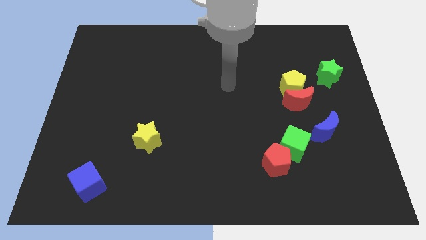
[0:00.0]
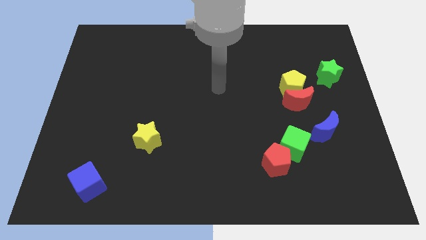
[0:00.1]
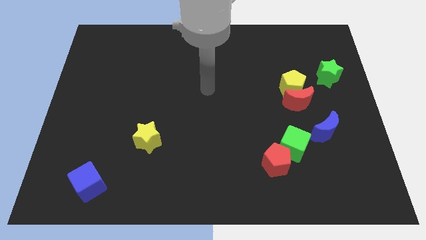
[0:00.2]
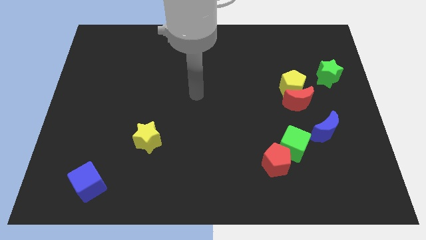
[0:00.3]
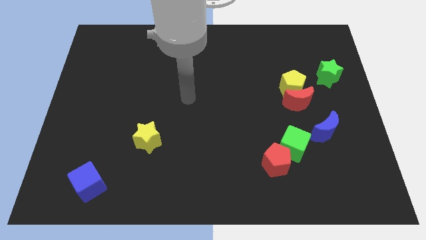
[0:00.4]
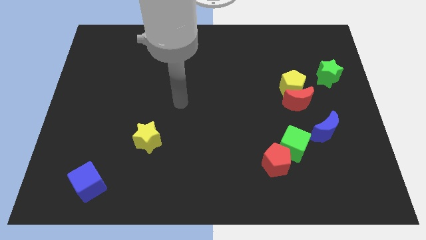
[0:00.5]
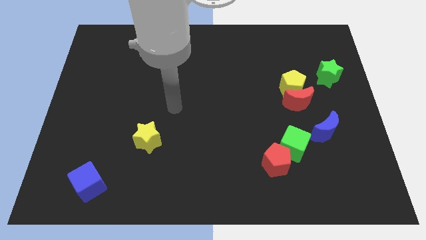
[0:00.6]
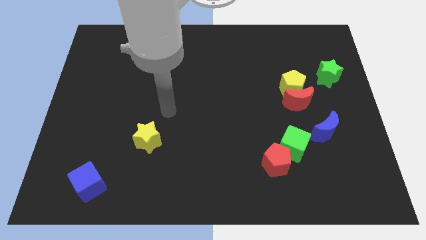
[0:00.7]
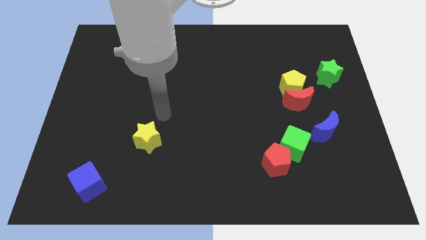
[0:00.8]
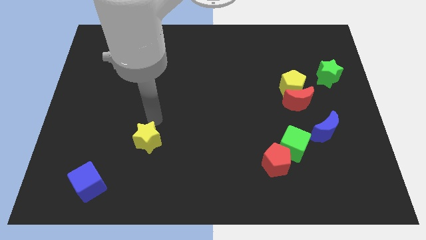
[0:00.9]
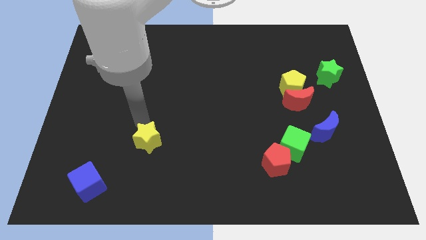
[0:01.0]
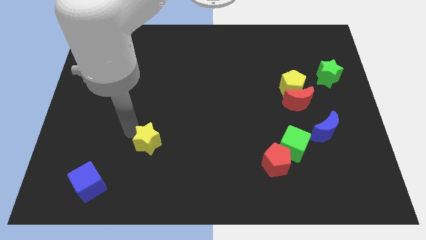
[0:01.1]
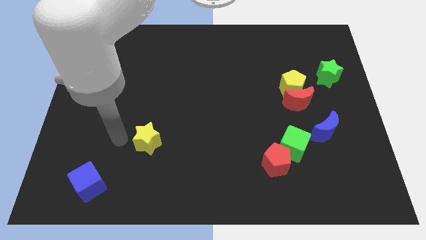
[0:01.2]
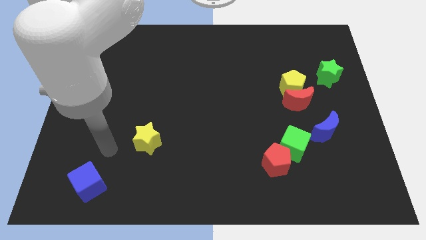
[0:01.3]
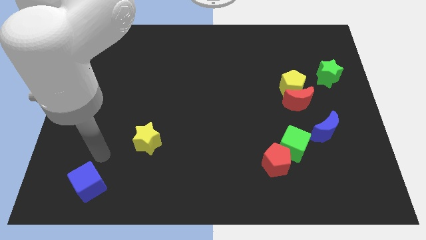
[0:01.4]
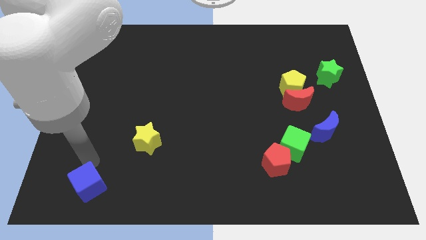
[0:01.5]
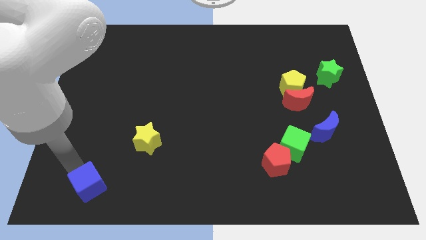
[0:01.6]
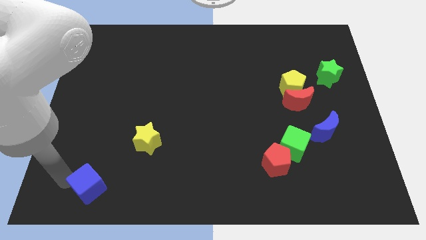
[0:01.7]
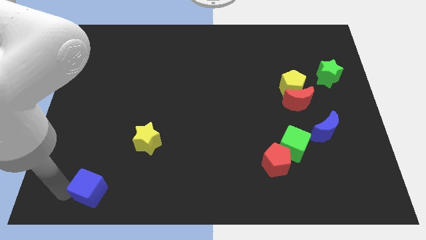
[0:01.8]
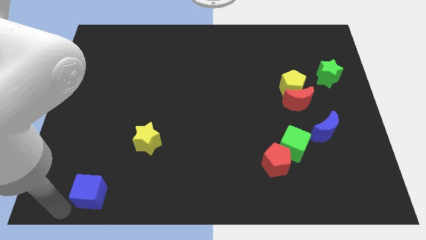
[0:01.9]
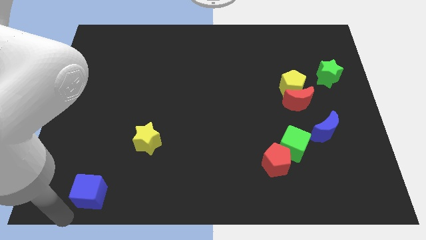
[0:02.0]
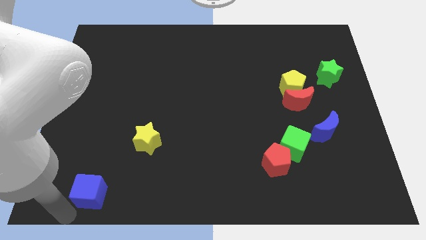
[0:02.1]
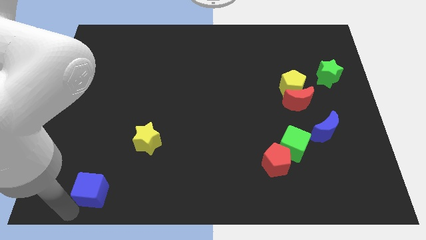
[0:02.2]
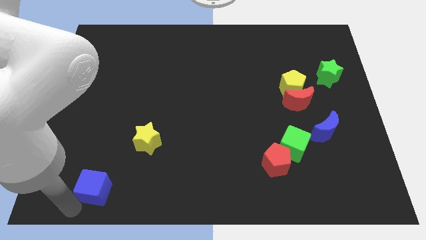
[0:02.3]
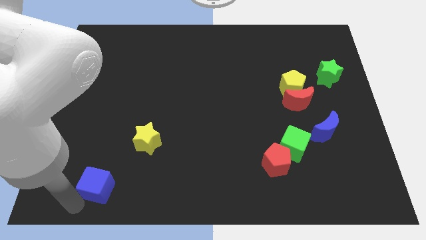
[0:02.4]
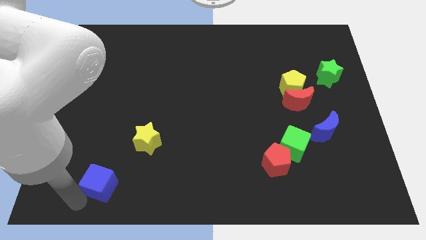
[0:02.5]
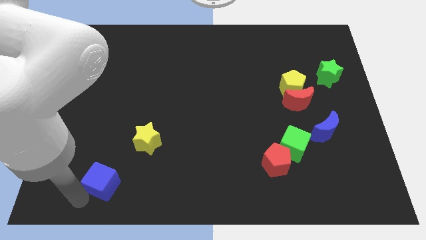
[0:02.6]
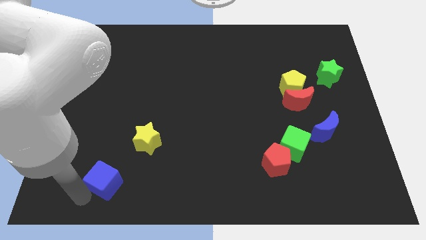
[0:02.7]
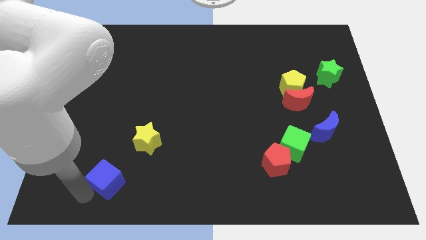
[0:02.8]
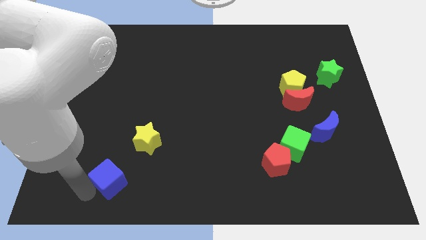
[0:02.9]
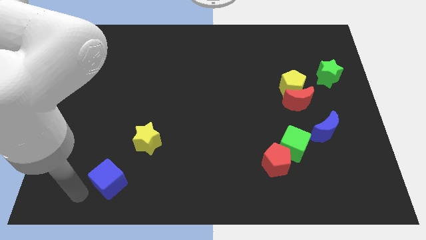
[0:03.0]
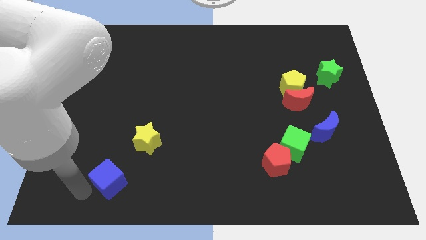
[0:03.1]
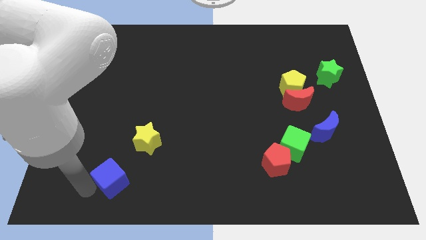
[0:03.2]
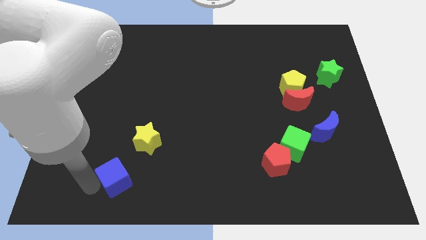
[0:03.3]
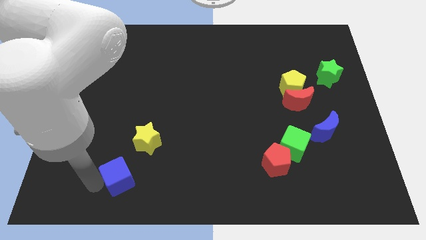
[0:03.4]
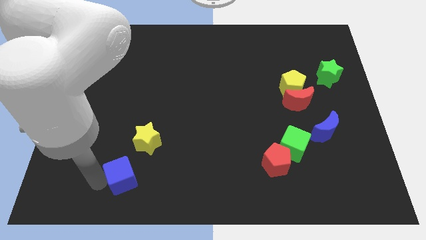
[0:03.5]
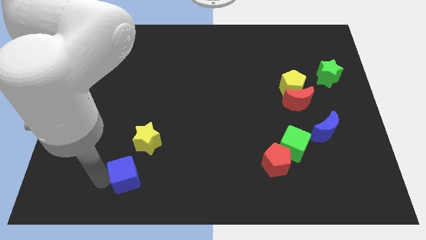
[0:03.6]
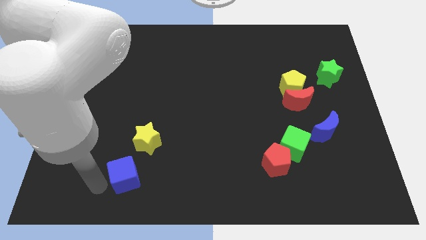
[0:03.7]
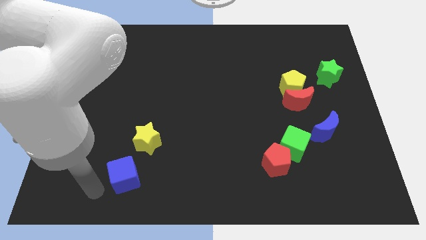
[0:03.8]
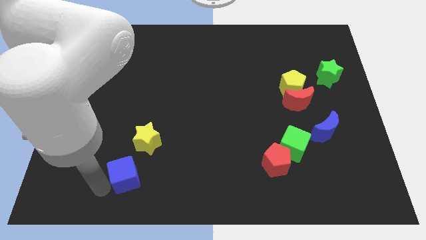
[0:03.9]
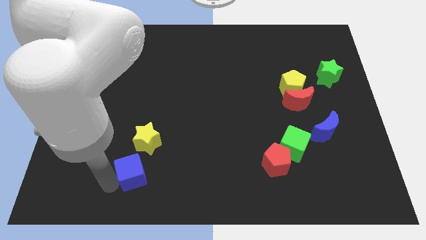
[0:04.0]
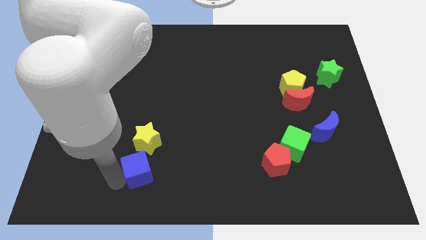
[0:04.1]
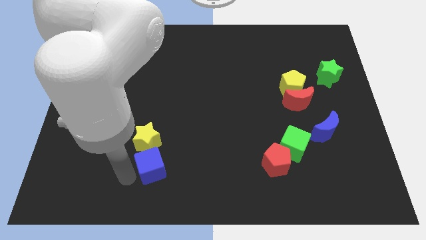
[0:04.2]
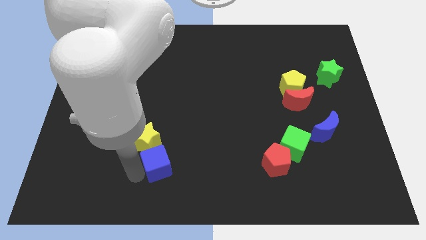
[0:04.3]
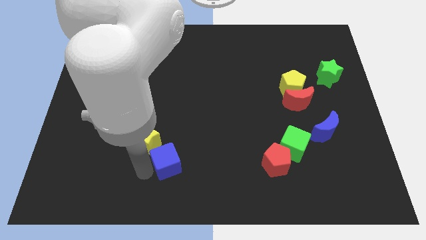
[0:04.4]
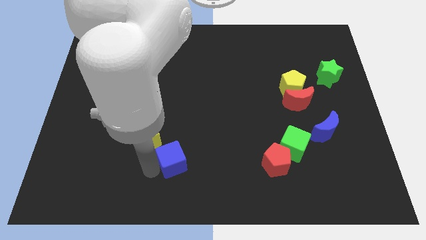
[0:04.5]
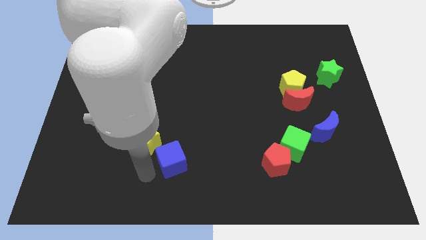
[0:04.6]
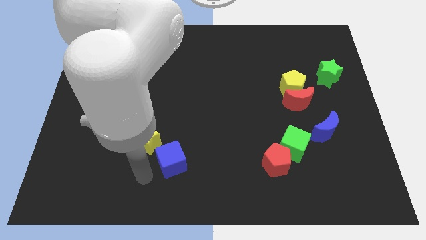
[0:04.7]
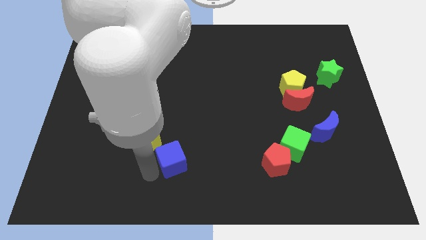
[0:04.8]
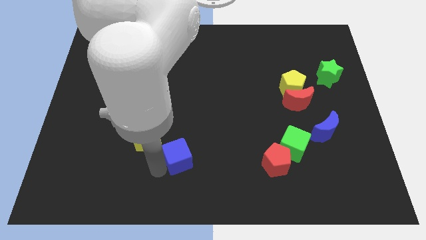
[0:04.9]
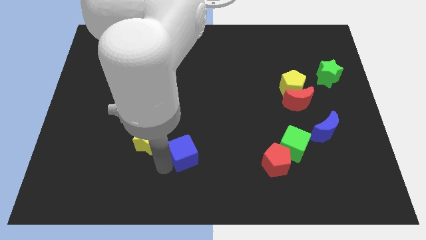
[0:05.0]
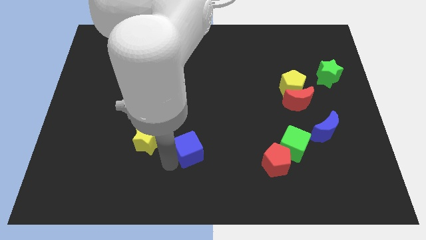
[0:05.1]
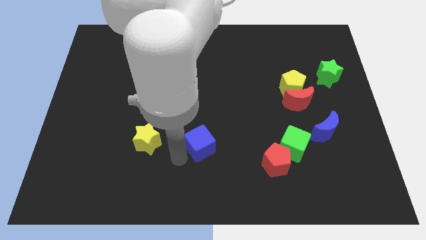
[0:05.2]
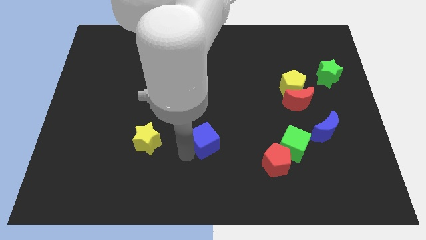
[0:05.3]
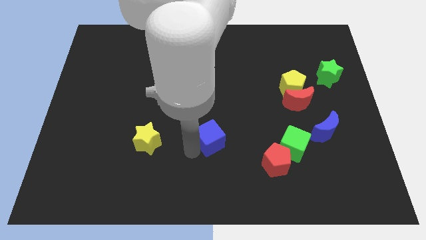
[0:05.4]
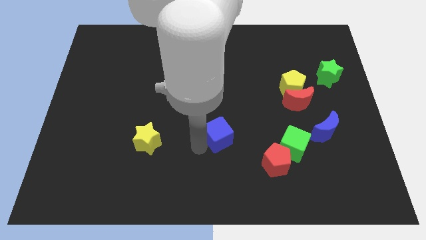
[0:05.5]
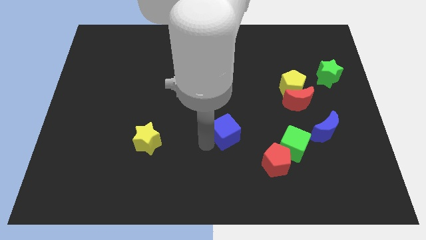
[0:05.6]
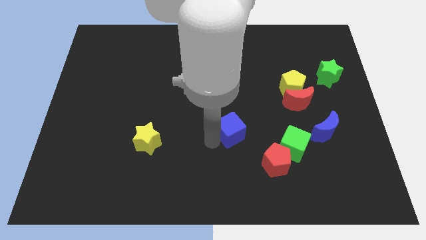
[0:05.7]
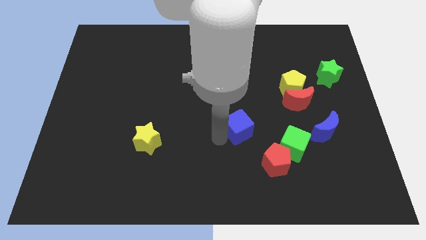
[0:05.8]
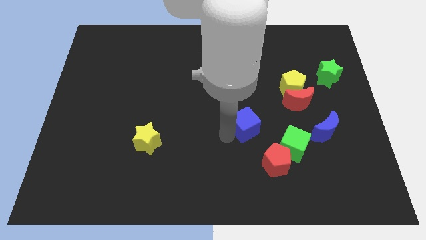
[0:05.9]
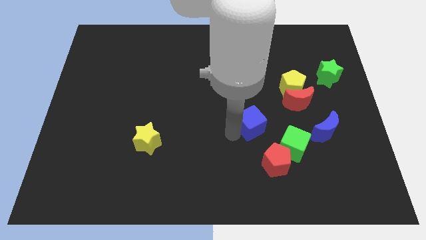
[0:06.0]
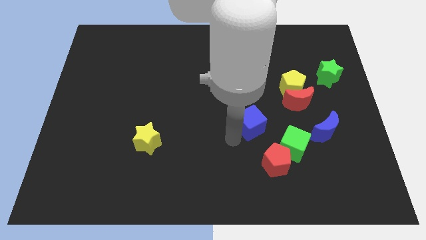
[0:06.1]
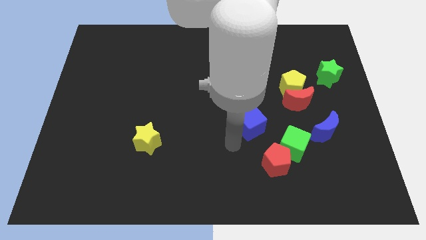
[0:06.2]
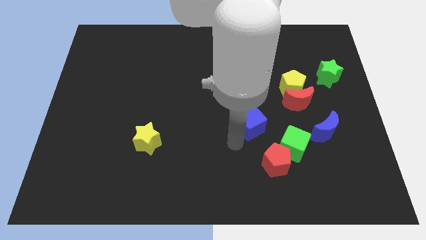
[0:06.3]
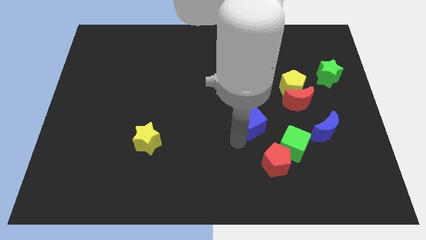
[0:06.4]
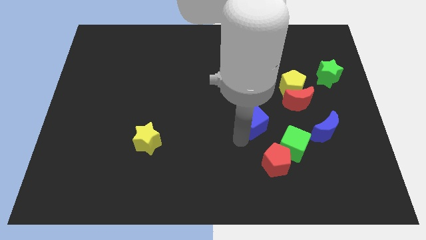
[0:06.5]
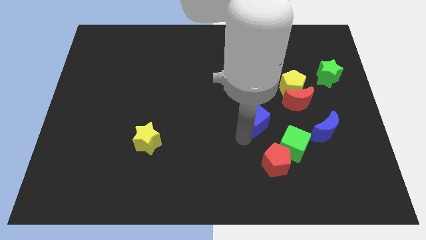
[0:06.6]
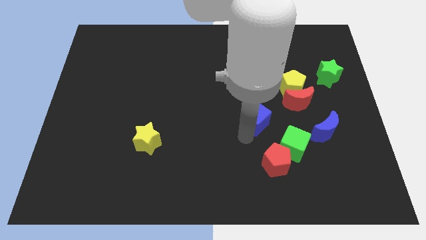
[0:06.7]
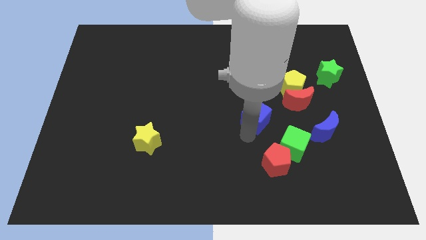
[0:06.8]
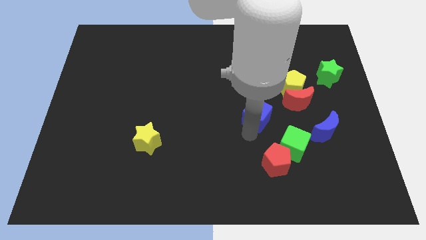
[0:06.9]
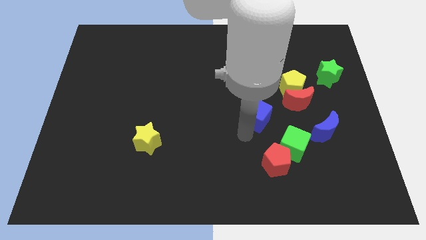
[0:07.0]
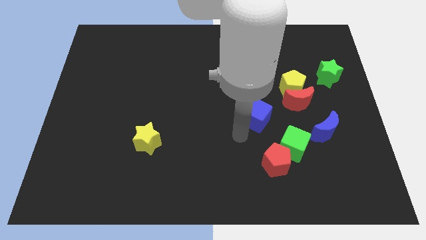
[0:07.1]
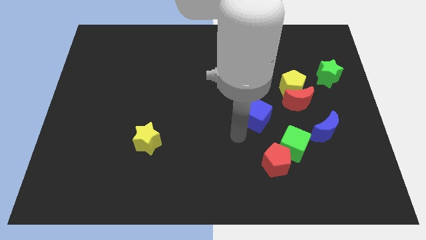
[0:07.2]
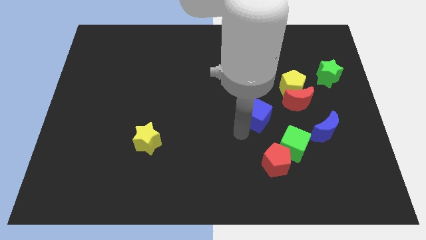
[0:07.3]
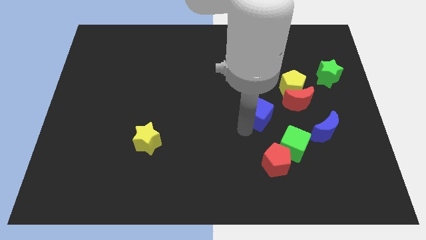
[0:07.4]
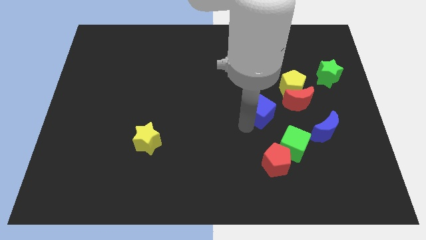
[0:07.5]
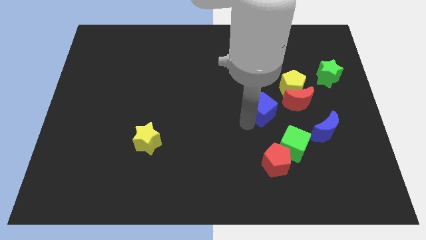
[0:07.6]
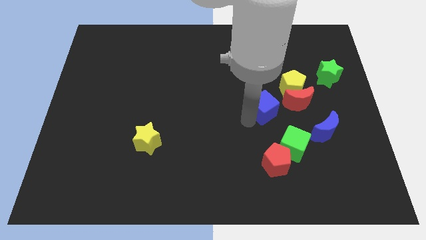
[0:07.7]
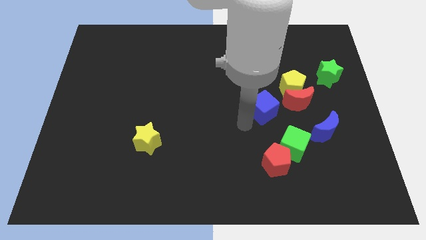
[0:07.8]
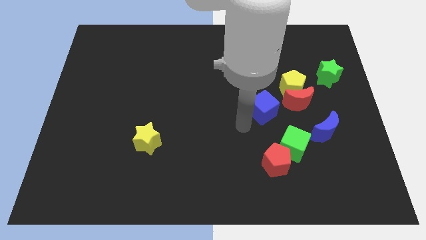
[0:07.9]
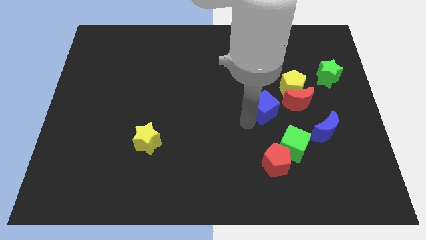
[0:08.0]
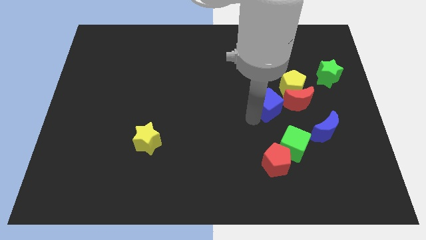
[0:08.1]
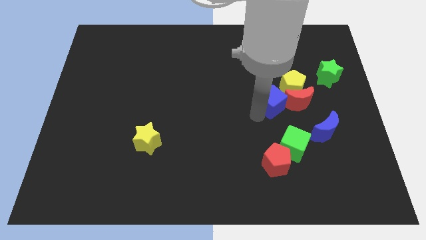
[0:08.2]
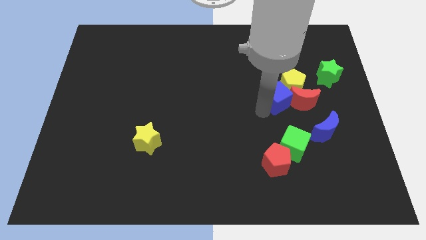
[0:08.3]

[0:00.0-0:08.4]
push the blue cube close to the yellow pentagon
